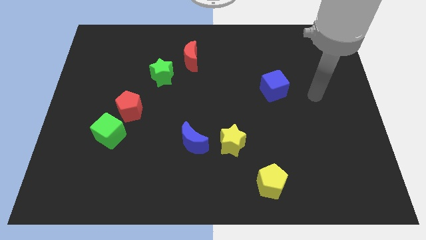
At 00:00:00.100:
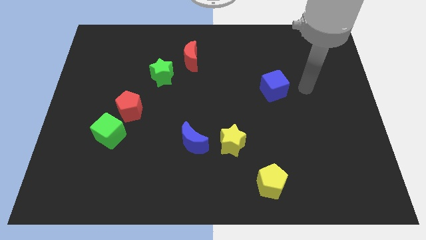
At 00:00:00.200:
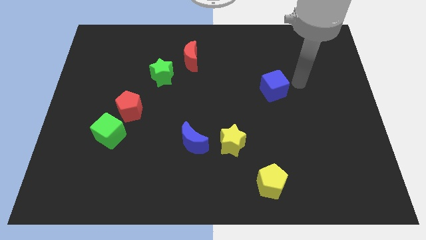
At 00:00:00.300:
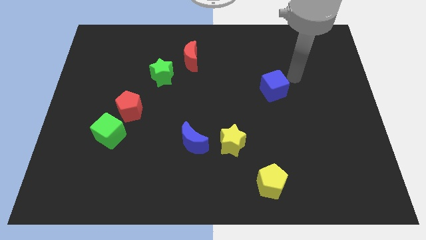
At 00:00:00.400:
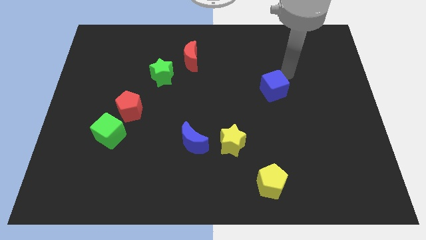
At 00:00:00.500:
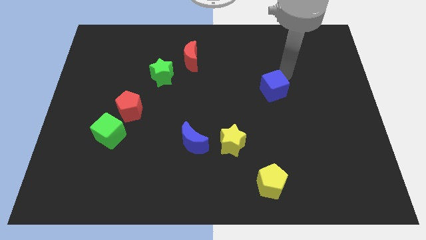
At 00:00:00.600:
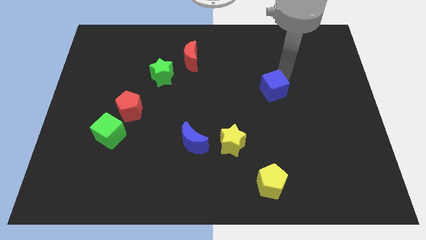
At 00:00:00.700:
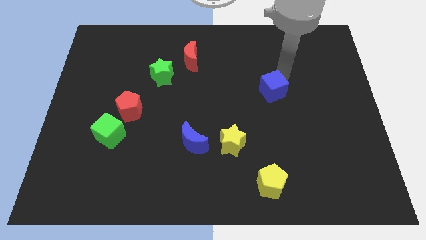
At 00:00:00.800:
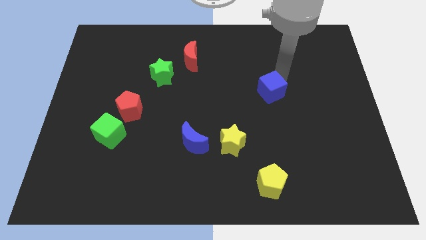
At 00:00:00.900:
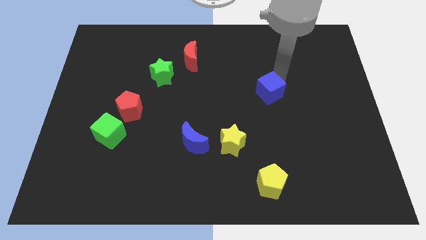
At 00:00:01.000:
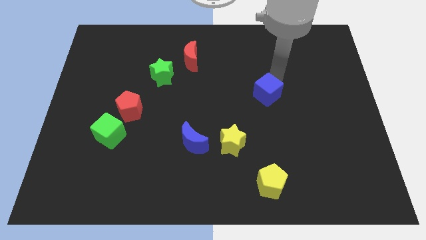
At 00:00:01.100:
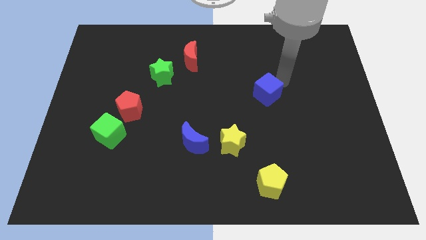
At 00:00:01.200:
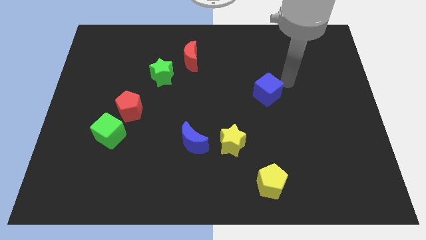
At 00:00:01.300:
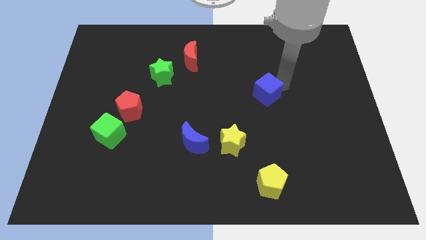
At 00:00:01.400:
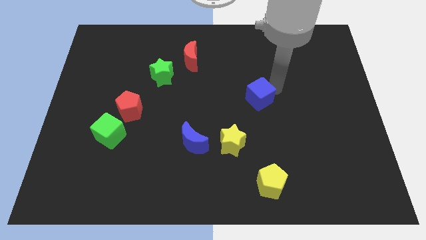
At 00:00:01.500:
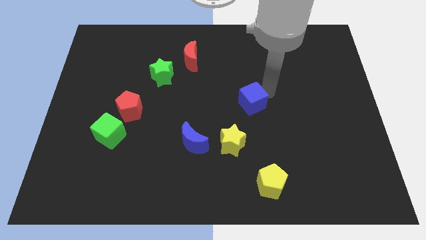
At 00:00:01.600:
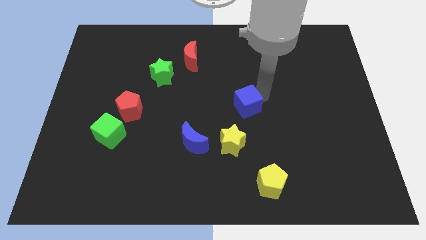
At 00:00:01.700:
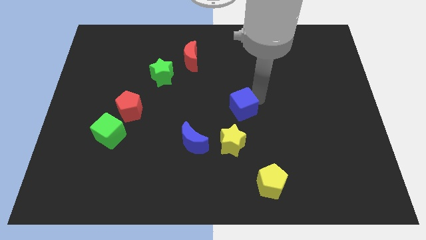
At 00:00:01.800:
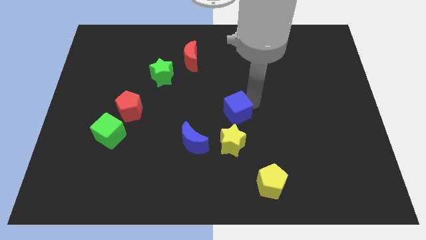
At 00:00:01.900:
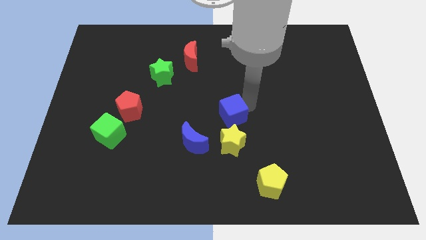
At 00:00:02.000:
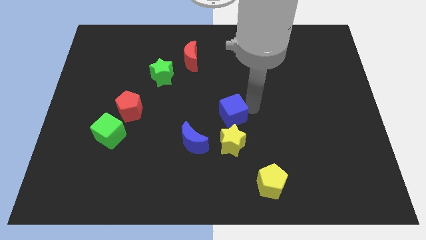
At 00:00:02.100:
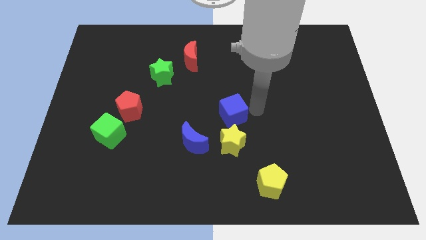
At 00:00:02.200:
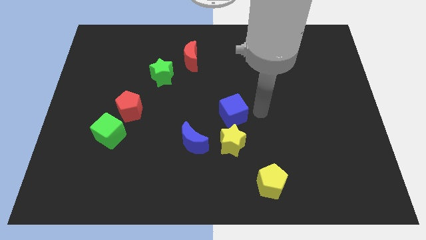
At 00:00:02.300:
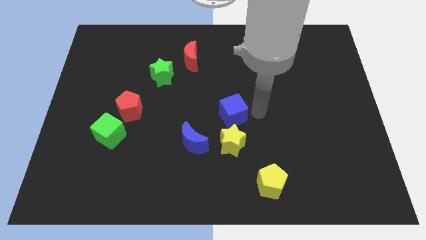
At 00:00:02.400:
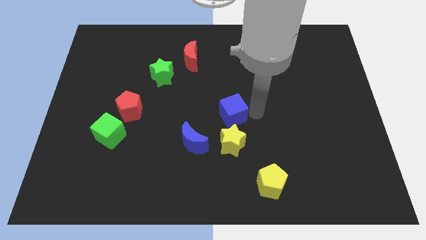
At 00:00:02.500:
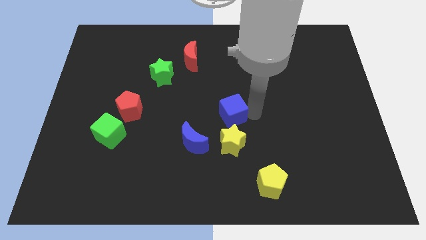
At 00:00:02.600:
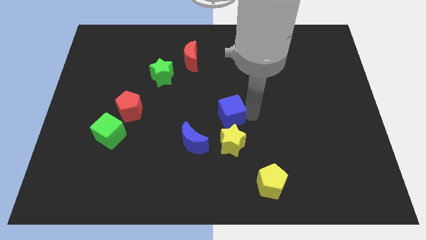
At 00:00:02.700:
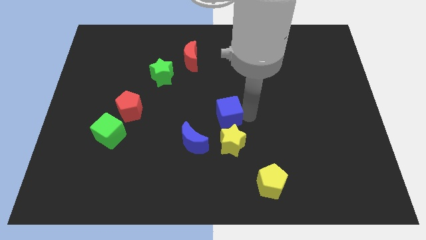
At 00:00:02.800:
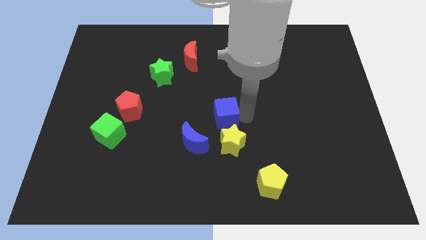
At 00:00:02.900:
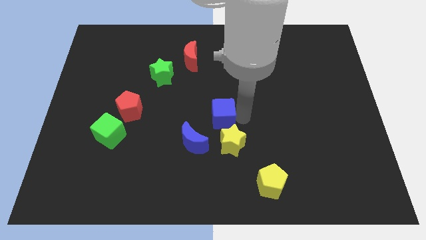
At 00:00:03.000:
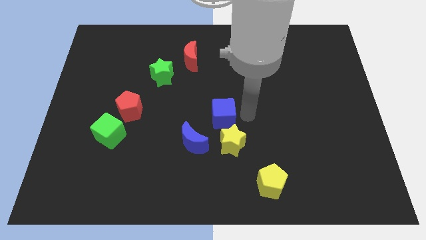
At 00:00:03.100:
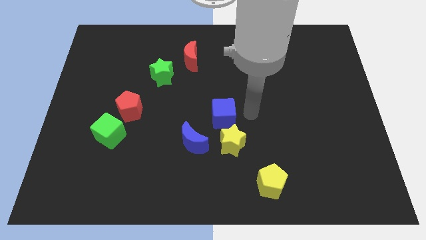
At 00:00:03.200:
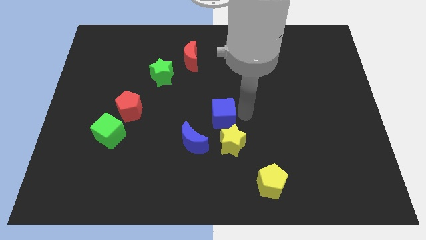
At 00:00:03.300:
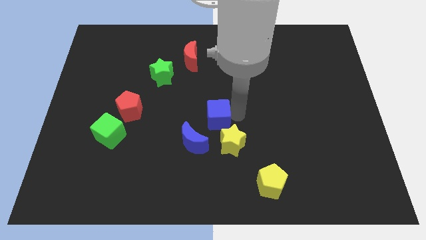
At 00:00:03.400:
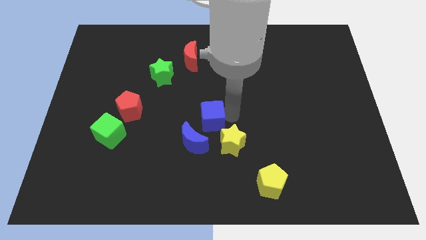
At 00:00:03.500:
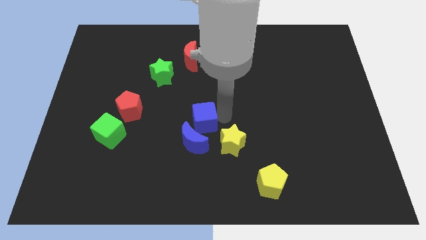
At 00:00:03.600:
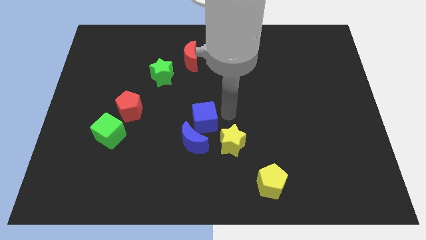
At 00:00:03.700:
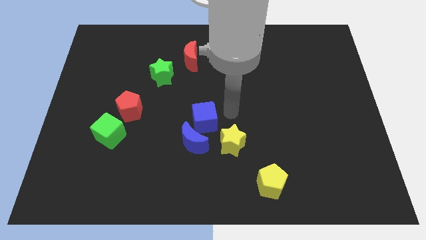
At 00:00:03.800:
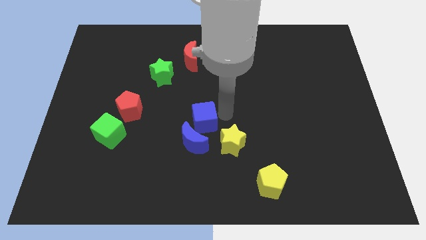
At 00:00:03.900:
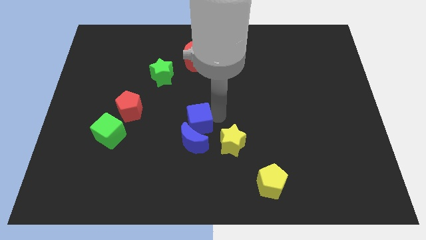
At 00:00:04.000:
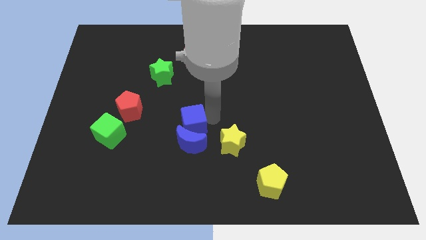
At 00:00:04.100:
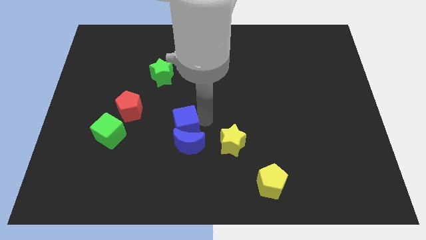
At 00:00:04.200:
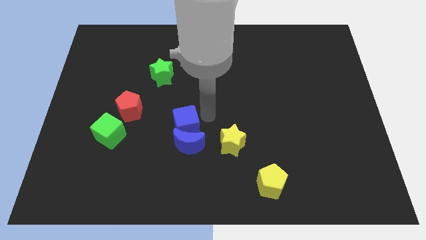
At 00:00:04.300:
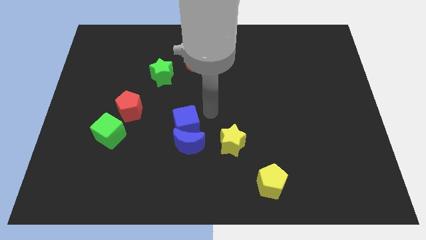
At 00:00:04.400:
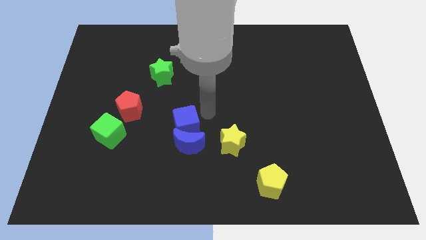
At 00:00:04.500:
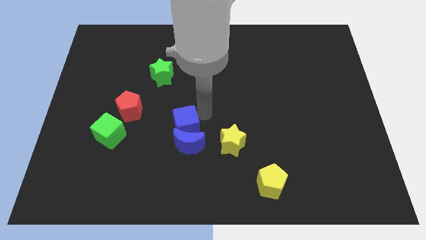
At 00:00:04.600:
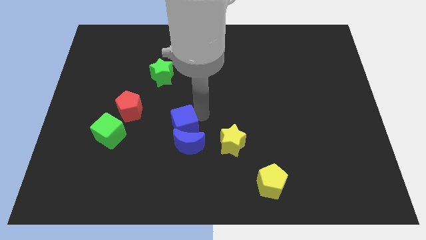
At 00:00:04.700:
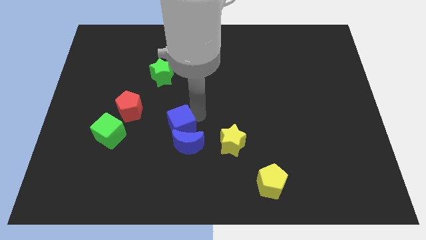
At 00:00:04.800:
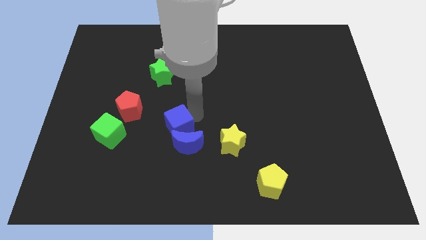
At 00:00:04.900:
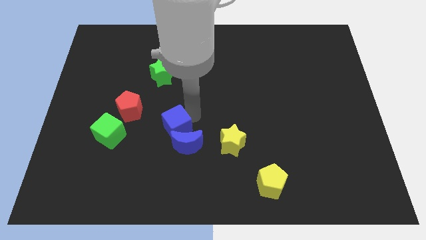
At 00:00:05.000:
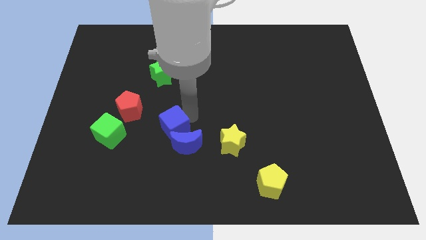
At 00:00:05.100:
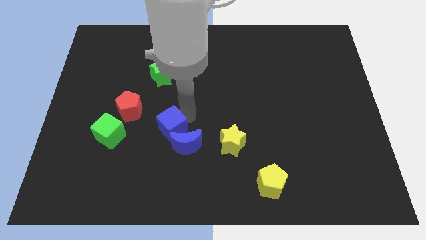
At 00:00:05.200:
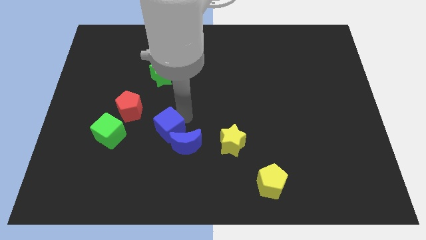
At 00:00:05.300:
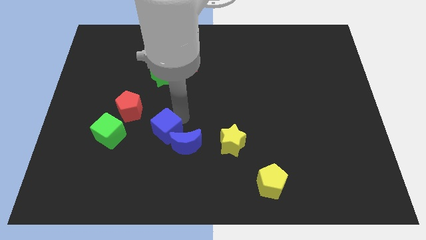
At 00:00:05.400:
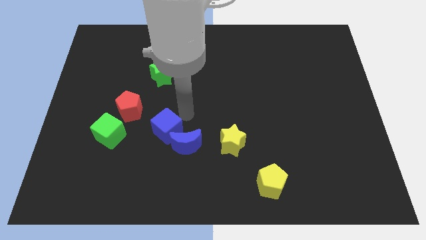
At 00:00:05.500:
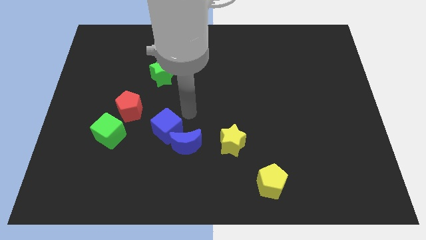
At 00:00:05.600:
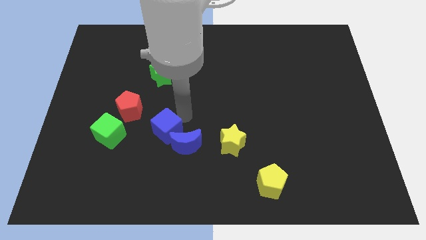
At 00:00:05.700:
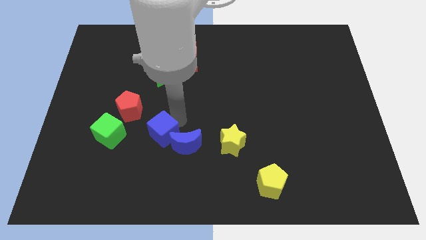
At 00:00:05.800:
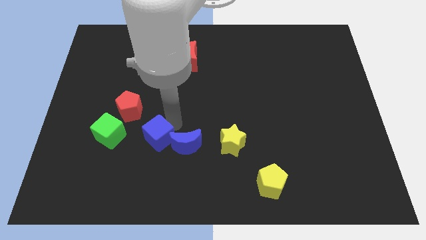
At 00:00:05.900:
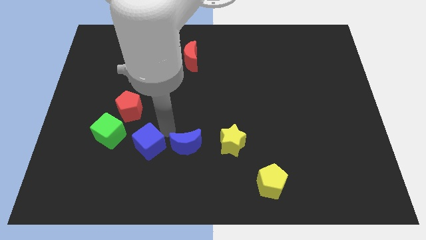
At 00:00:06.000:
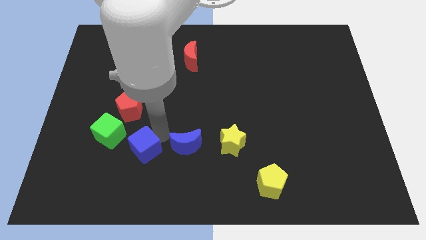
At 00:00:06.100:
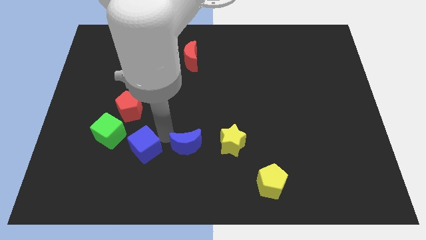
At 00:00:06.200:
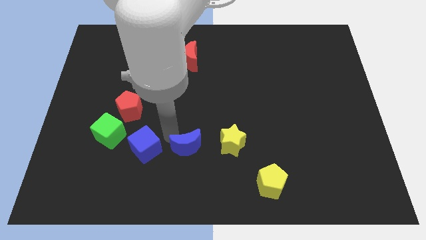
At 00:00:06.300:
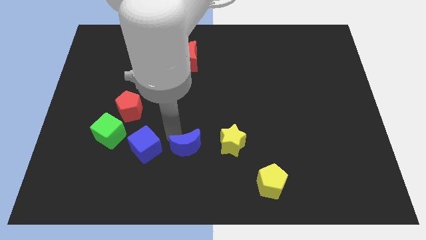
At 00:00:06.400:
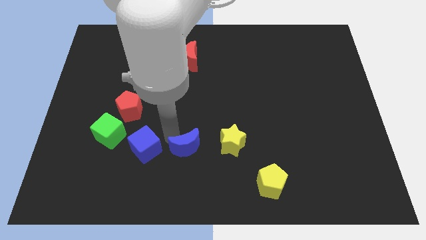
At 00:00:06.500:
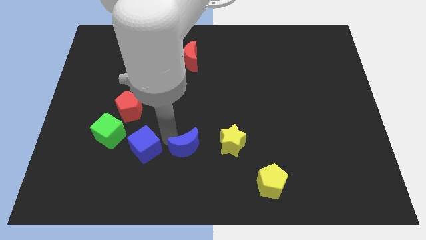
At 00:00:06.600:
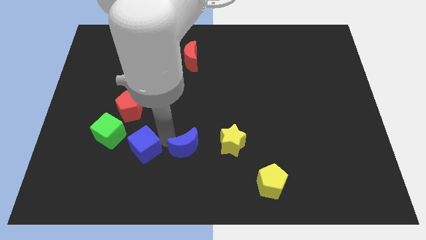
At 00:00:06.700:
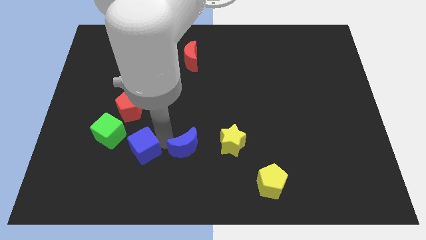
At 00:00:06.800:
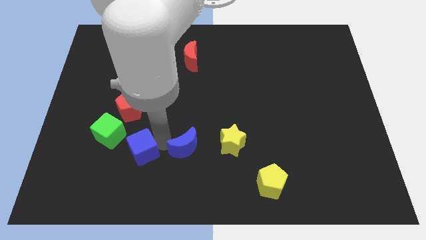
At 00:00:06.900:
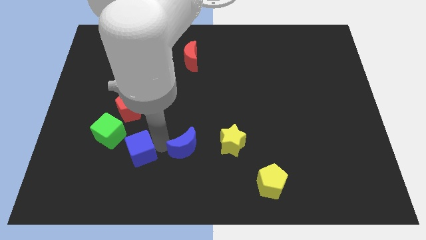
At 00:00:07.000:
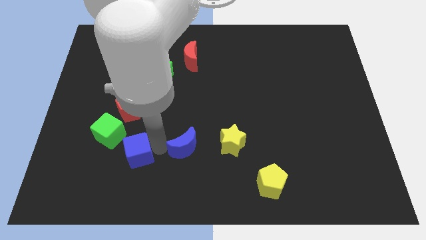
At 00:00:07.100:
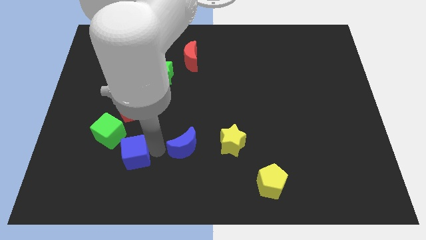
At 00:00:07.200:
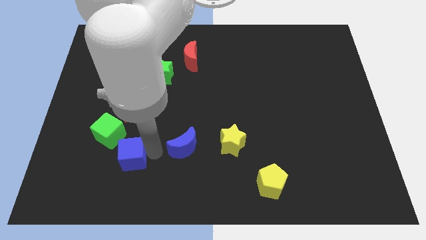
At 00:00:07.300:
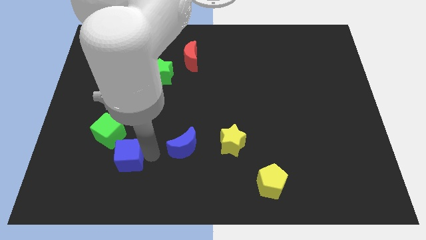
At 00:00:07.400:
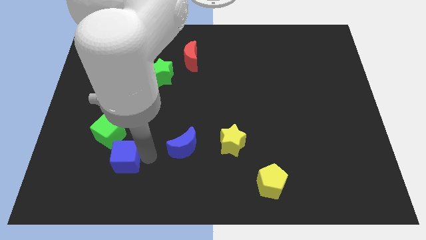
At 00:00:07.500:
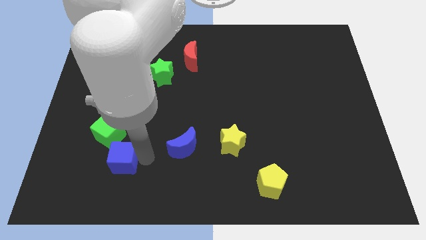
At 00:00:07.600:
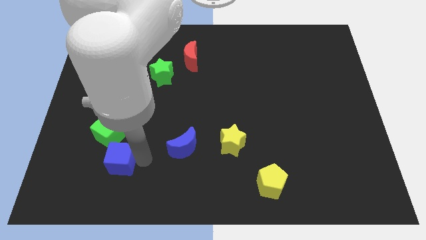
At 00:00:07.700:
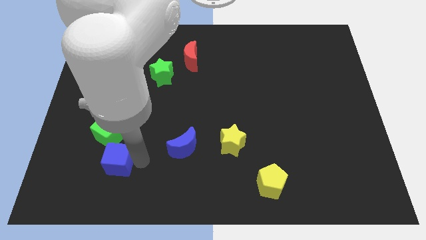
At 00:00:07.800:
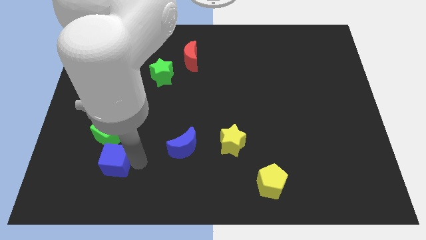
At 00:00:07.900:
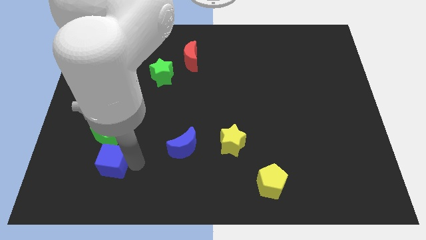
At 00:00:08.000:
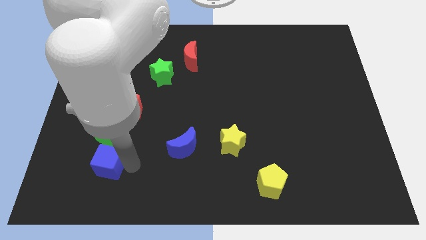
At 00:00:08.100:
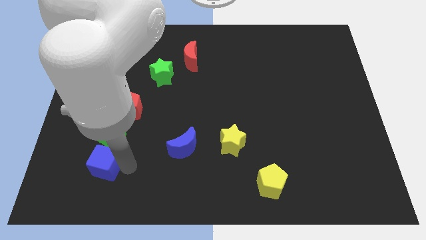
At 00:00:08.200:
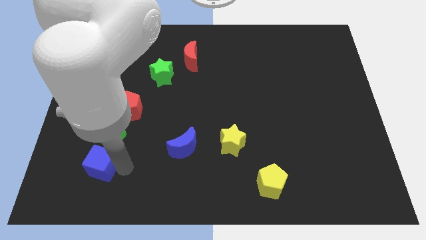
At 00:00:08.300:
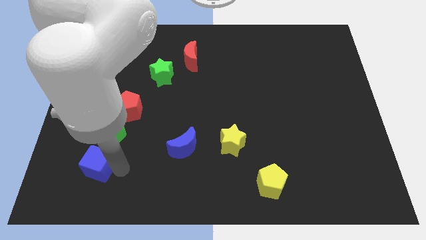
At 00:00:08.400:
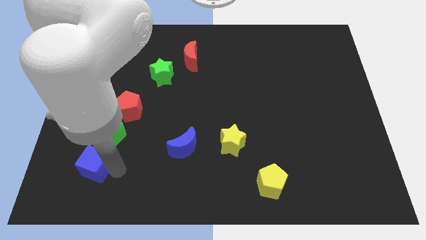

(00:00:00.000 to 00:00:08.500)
slide the blue cube to the bottom left of the green cube
